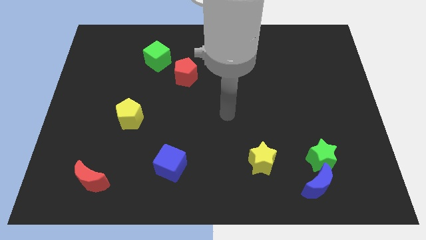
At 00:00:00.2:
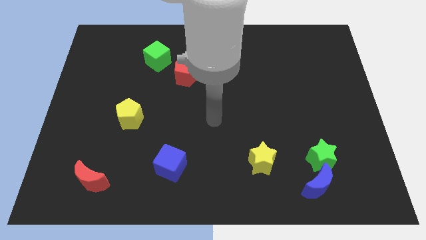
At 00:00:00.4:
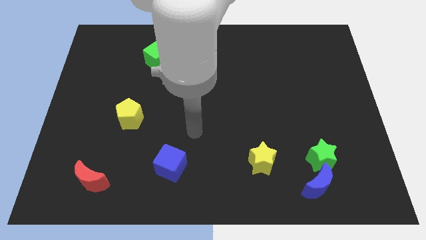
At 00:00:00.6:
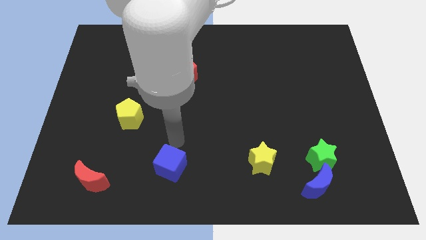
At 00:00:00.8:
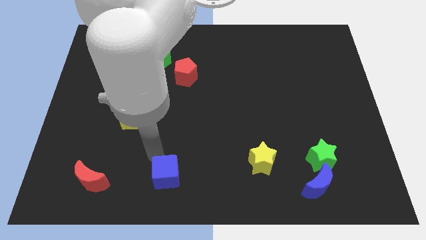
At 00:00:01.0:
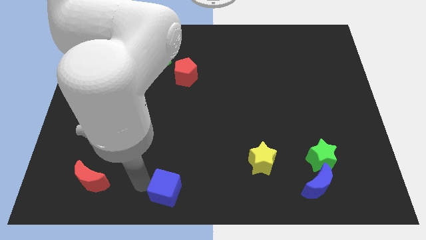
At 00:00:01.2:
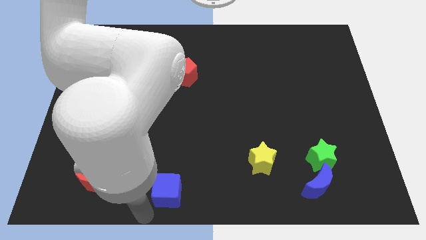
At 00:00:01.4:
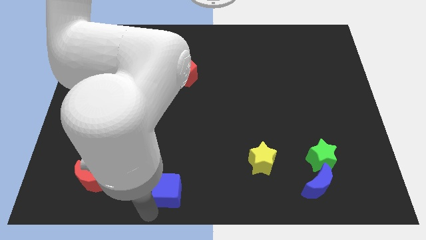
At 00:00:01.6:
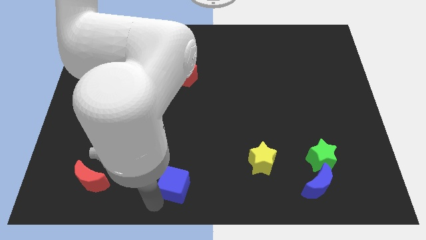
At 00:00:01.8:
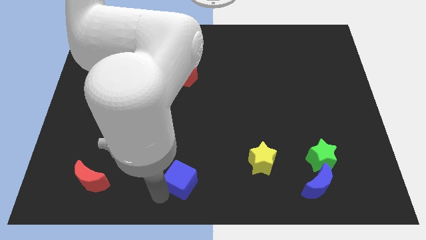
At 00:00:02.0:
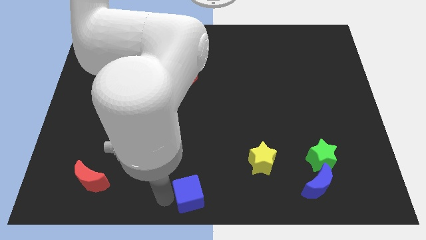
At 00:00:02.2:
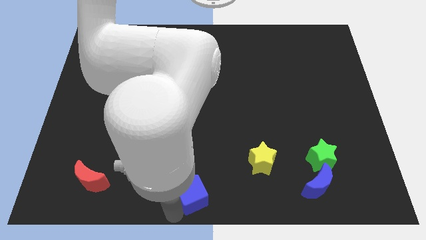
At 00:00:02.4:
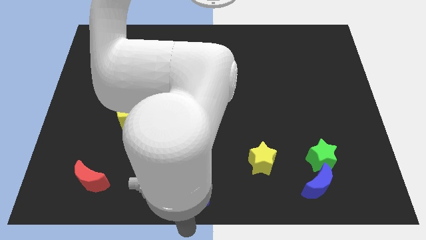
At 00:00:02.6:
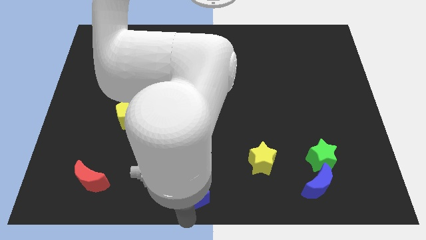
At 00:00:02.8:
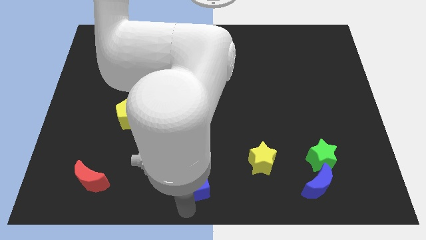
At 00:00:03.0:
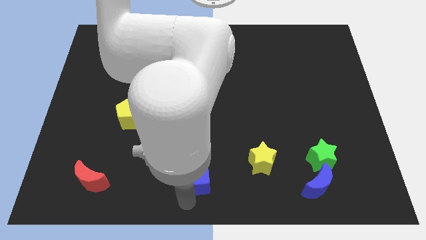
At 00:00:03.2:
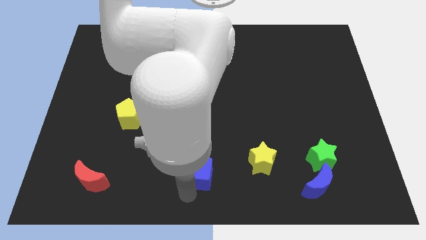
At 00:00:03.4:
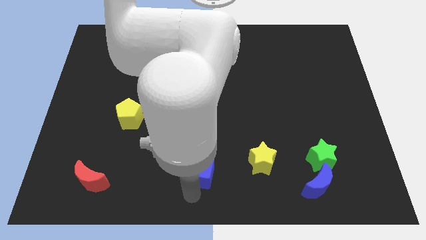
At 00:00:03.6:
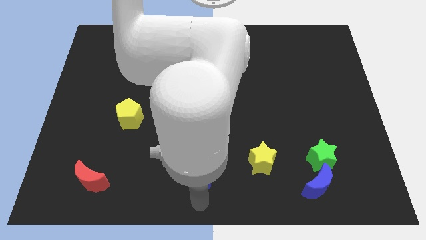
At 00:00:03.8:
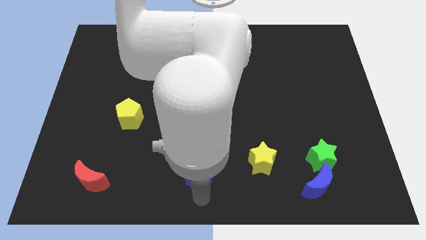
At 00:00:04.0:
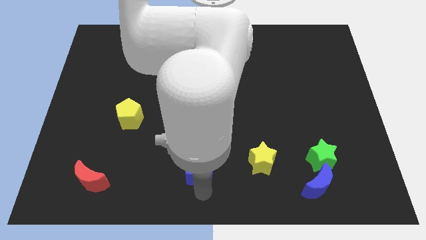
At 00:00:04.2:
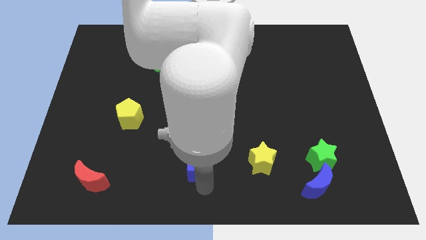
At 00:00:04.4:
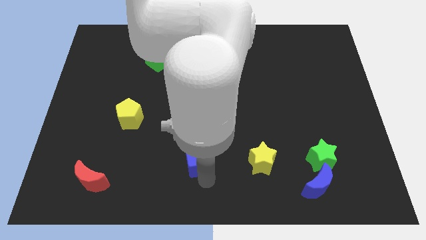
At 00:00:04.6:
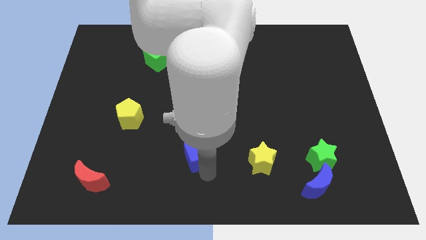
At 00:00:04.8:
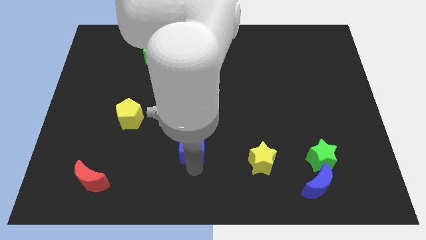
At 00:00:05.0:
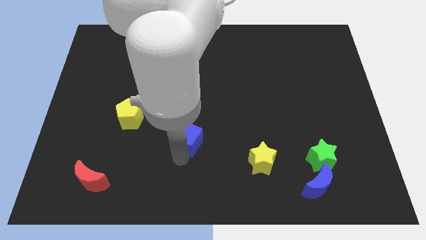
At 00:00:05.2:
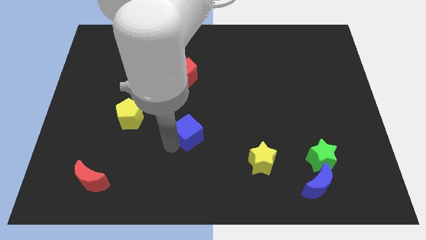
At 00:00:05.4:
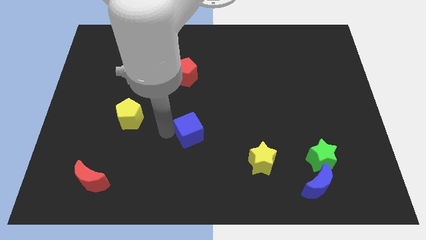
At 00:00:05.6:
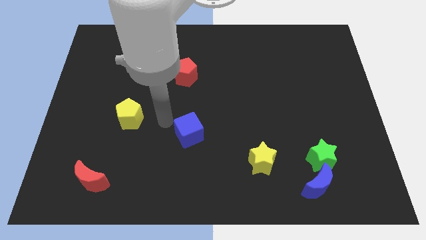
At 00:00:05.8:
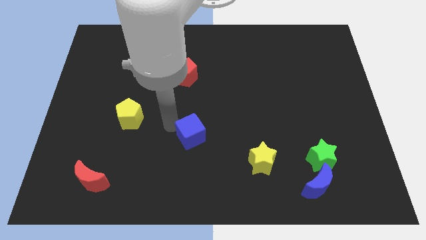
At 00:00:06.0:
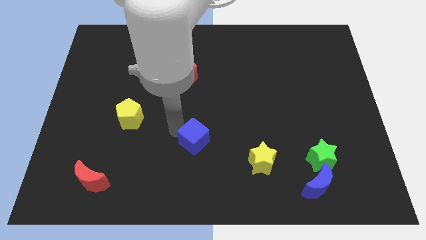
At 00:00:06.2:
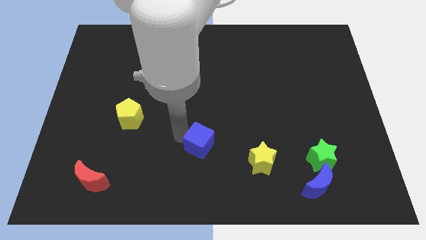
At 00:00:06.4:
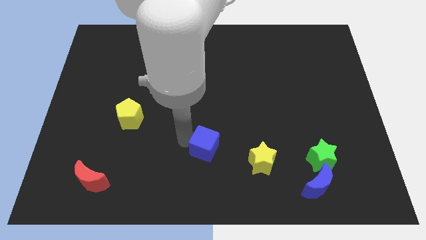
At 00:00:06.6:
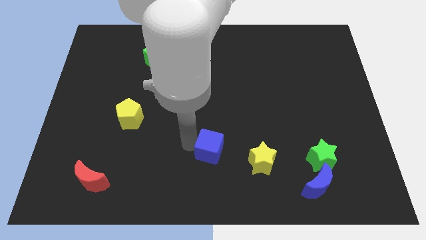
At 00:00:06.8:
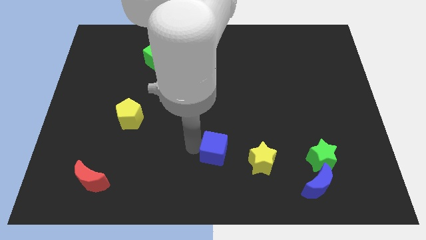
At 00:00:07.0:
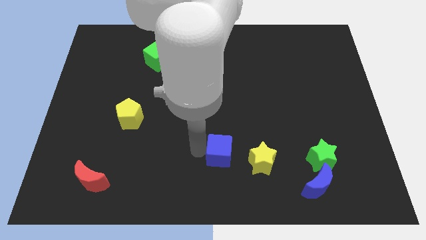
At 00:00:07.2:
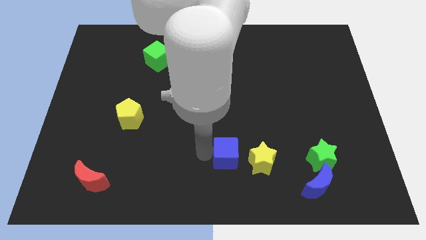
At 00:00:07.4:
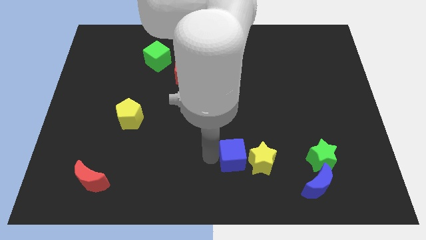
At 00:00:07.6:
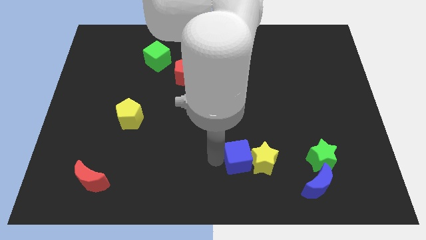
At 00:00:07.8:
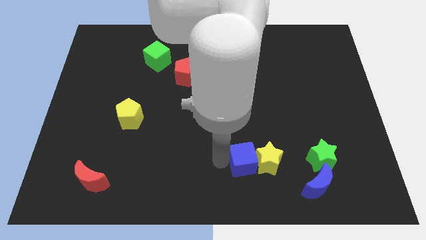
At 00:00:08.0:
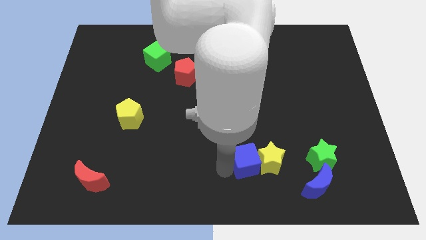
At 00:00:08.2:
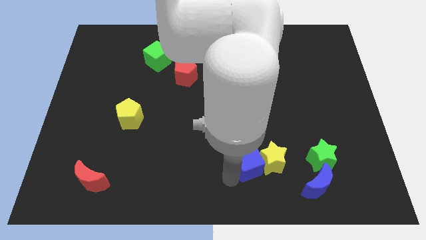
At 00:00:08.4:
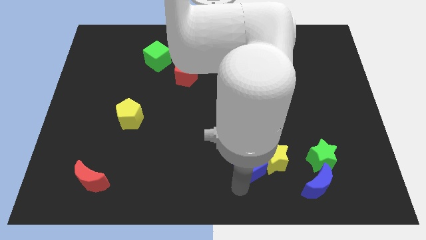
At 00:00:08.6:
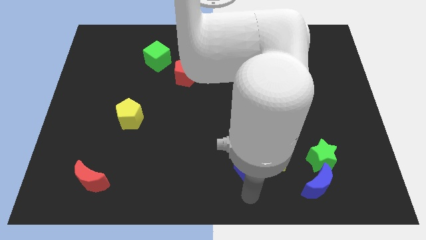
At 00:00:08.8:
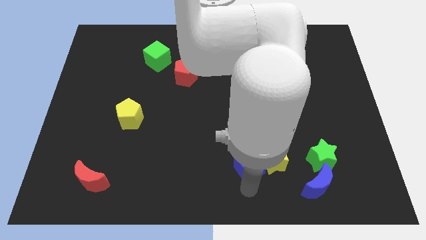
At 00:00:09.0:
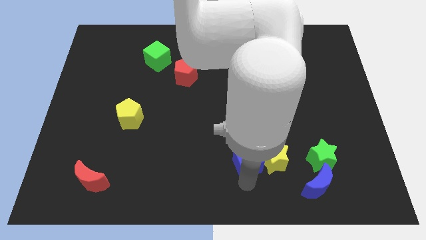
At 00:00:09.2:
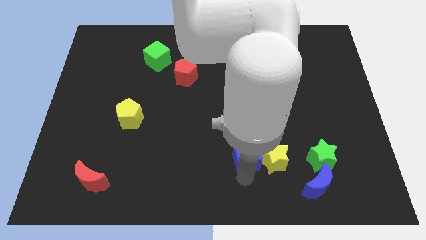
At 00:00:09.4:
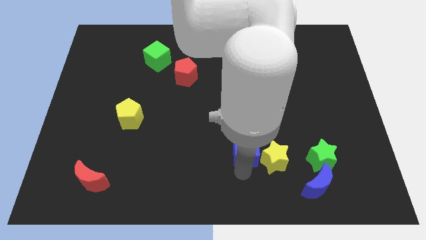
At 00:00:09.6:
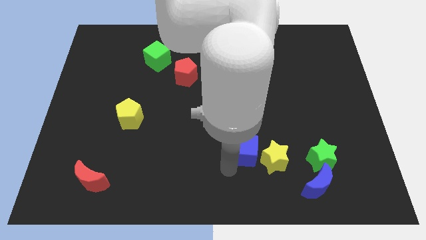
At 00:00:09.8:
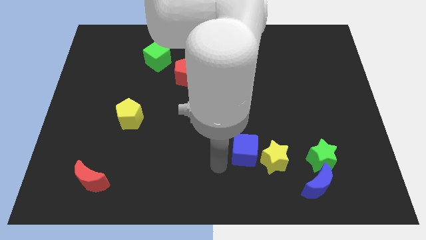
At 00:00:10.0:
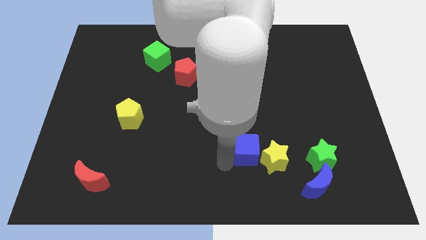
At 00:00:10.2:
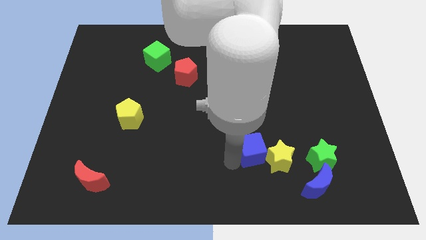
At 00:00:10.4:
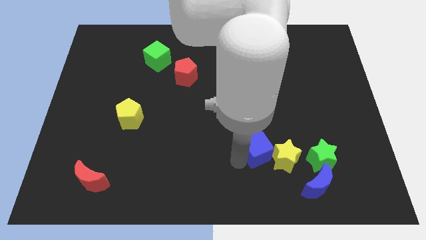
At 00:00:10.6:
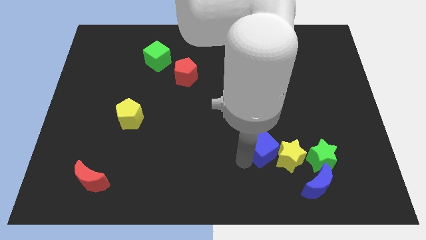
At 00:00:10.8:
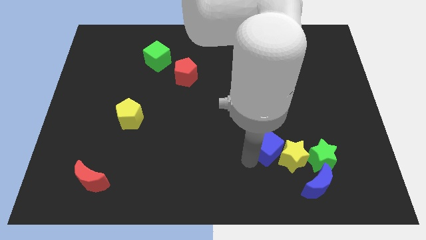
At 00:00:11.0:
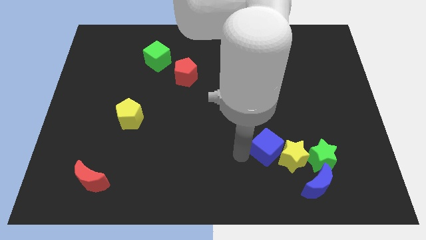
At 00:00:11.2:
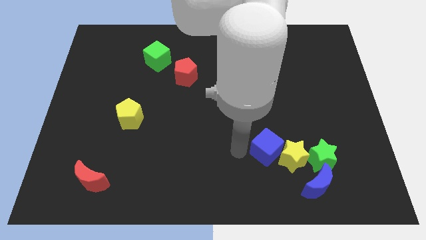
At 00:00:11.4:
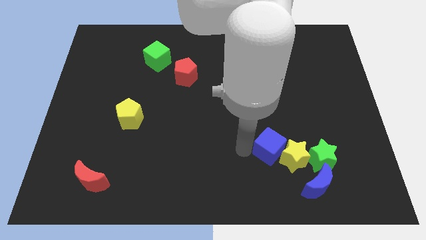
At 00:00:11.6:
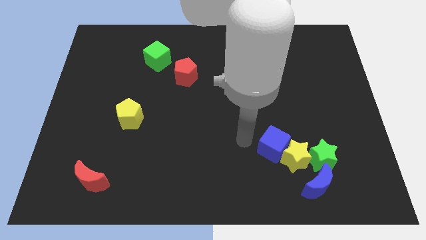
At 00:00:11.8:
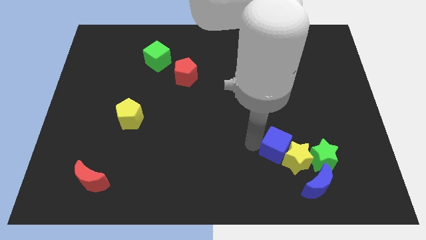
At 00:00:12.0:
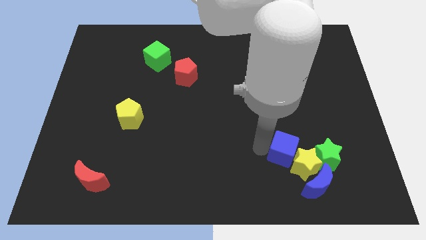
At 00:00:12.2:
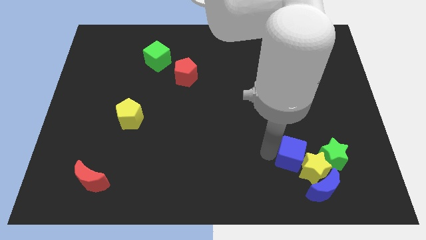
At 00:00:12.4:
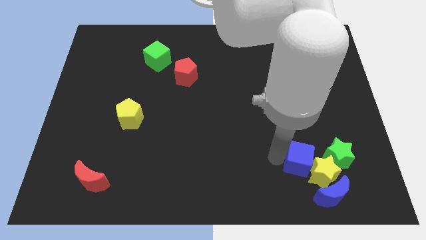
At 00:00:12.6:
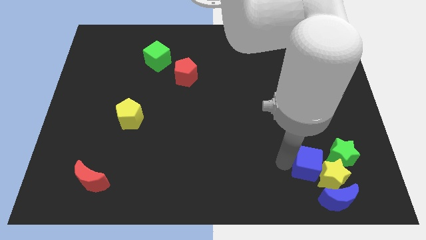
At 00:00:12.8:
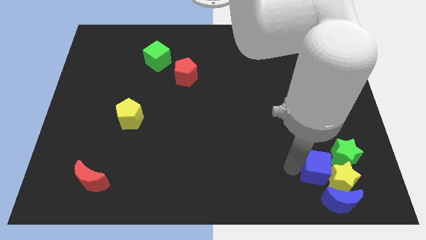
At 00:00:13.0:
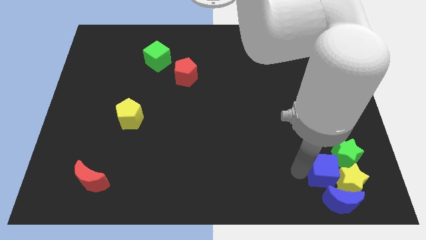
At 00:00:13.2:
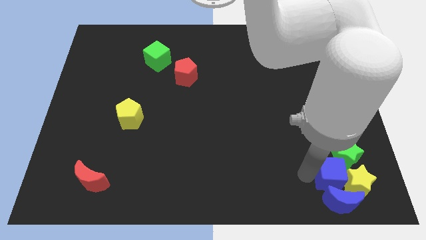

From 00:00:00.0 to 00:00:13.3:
push the blue cube towards the green star

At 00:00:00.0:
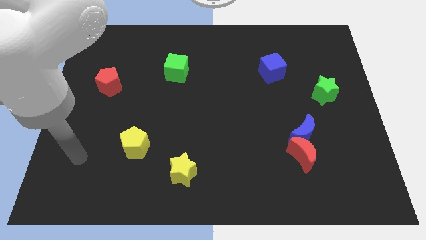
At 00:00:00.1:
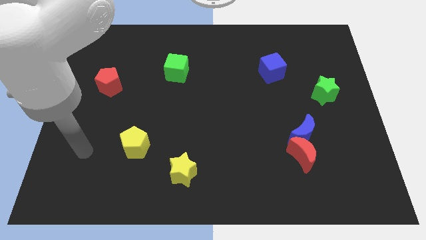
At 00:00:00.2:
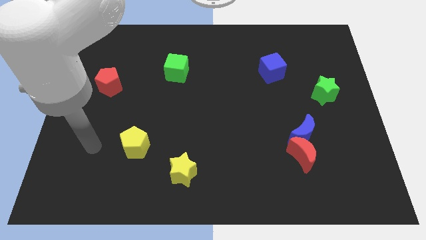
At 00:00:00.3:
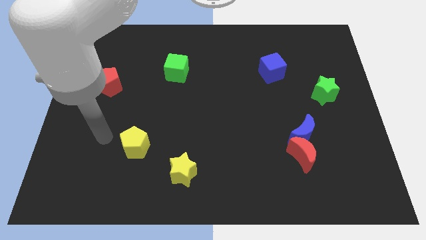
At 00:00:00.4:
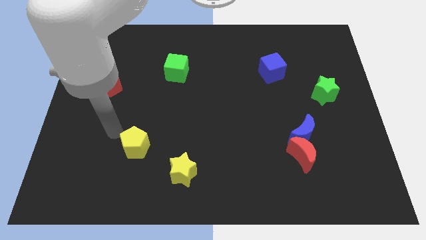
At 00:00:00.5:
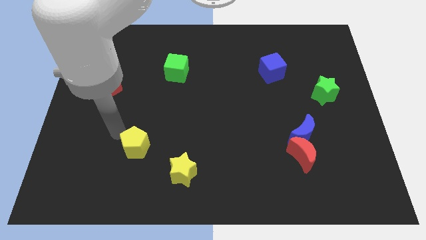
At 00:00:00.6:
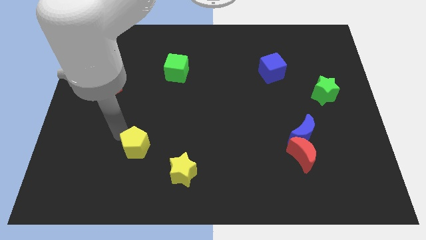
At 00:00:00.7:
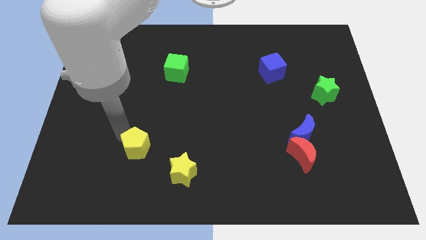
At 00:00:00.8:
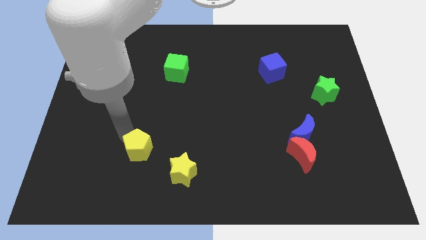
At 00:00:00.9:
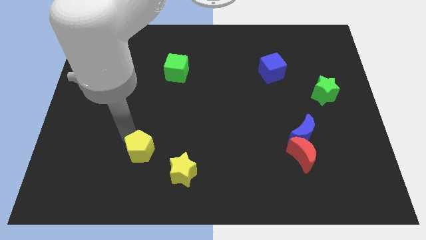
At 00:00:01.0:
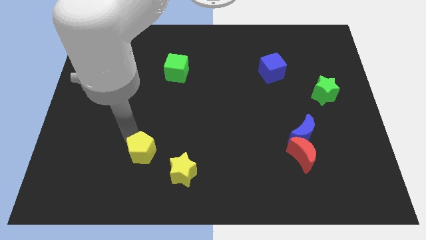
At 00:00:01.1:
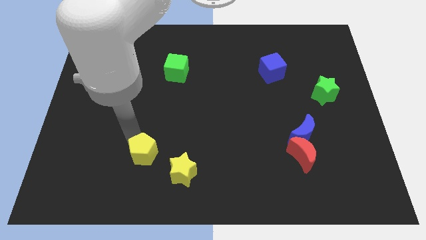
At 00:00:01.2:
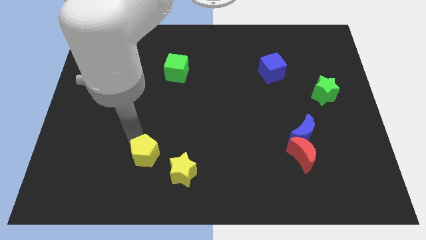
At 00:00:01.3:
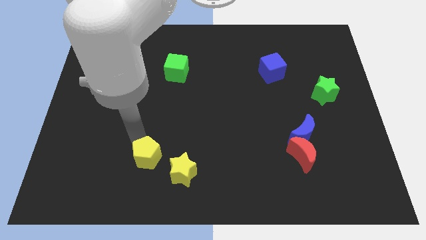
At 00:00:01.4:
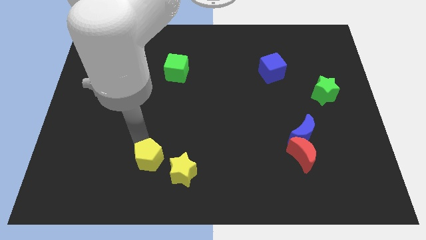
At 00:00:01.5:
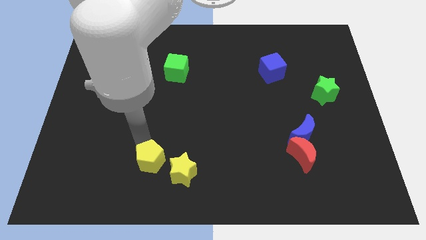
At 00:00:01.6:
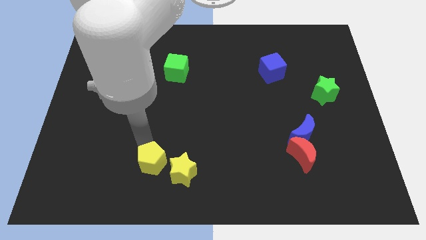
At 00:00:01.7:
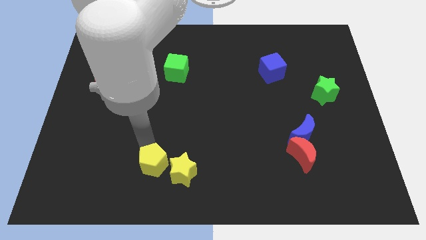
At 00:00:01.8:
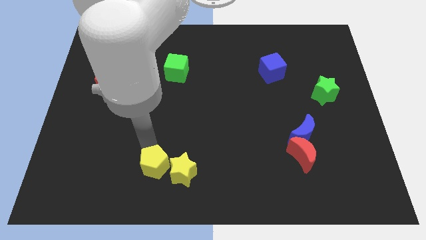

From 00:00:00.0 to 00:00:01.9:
push the yellow pentagon to the yellow star
